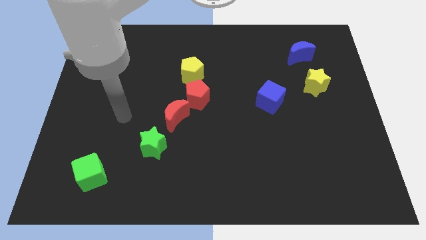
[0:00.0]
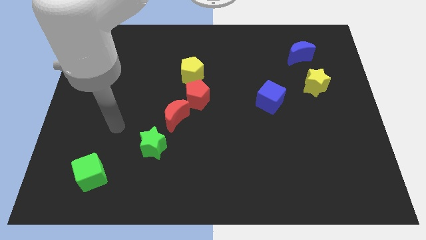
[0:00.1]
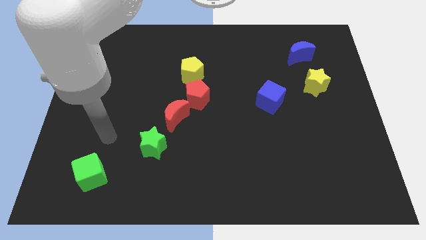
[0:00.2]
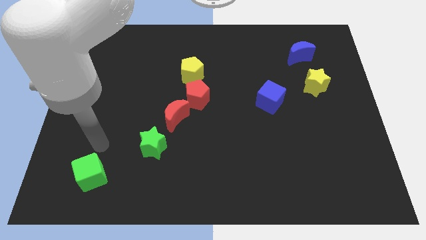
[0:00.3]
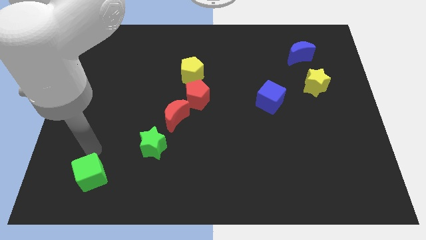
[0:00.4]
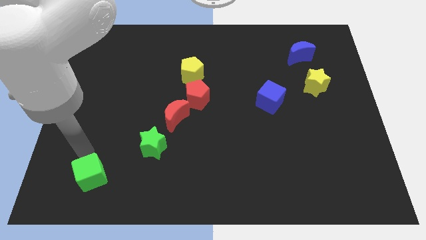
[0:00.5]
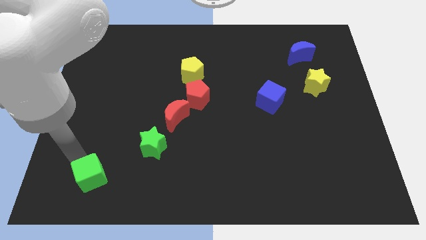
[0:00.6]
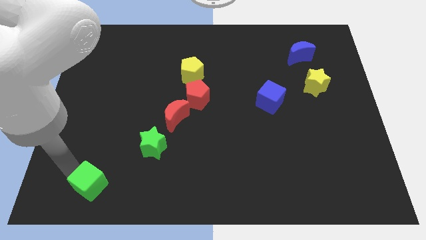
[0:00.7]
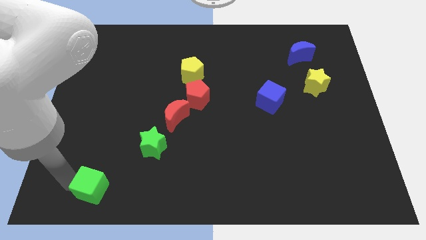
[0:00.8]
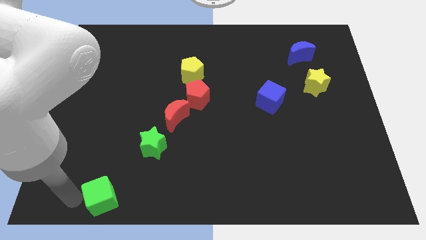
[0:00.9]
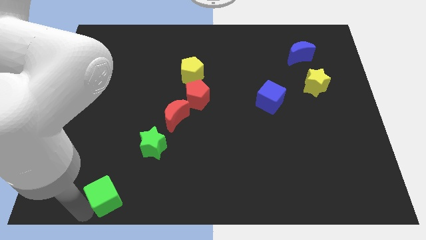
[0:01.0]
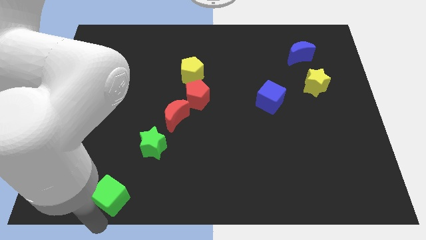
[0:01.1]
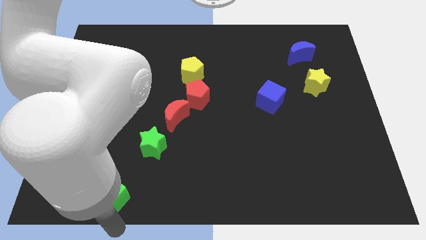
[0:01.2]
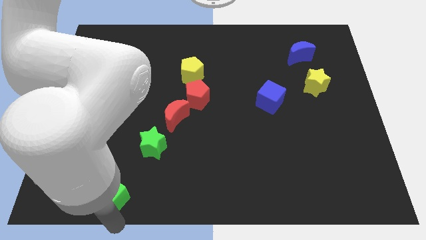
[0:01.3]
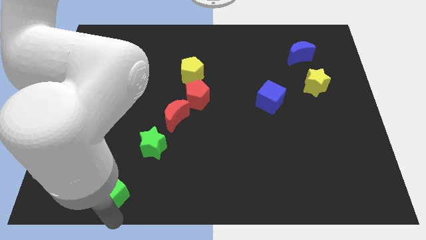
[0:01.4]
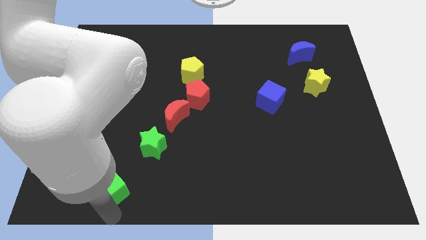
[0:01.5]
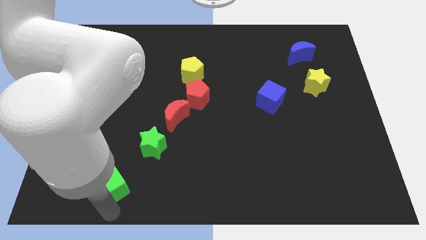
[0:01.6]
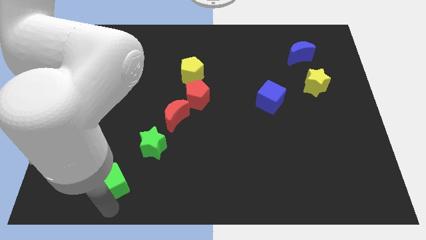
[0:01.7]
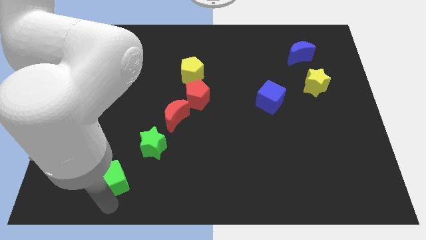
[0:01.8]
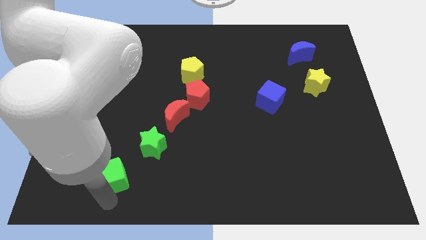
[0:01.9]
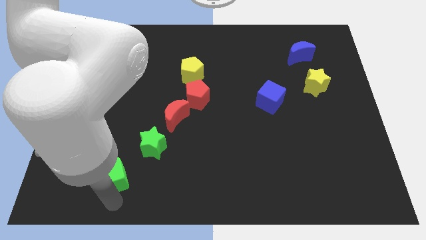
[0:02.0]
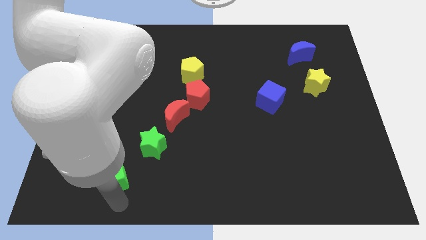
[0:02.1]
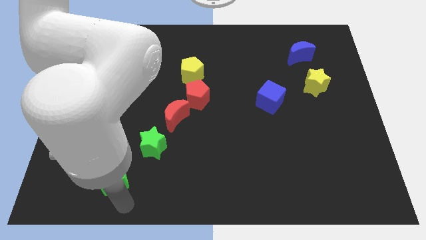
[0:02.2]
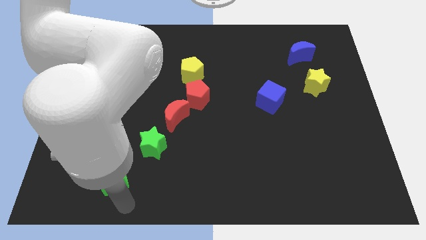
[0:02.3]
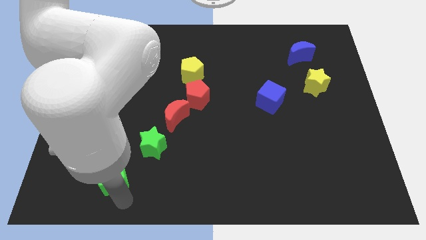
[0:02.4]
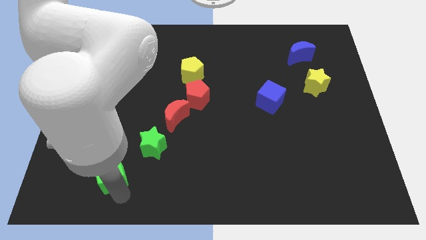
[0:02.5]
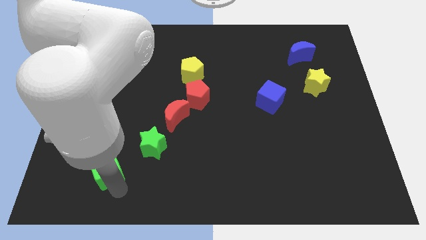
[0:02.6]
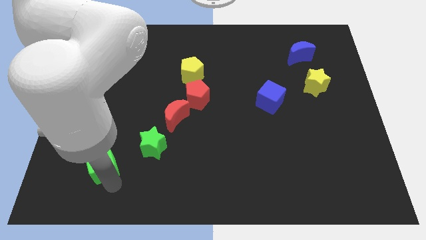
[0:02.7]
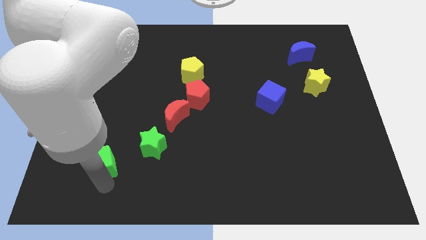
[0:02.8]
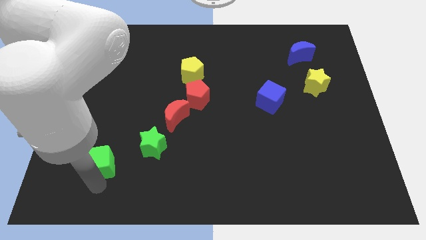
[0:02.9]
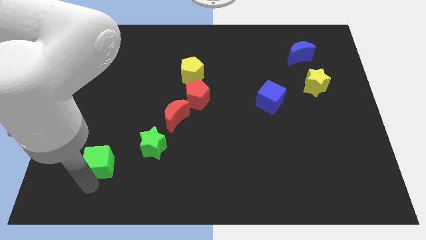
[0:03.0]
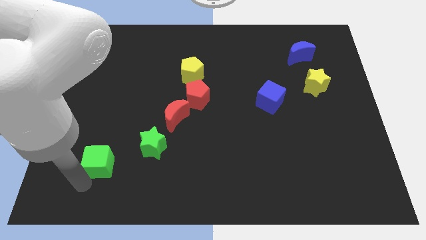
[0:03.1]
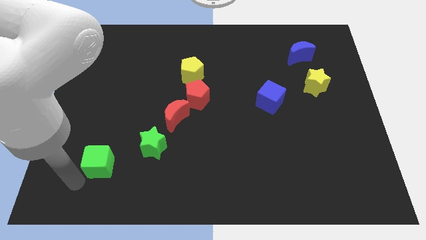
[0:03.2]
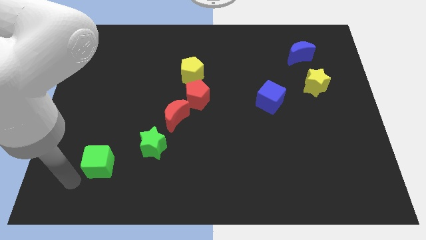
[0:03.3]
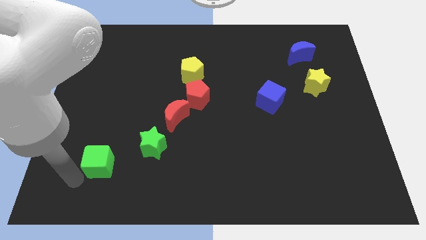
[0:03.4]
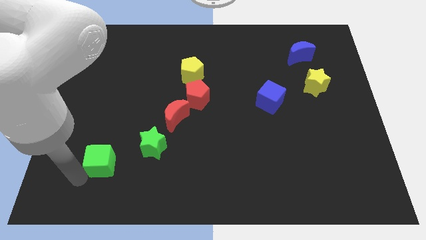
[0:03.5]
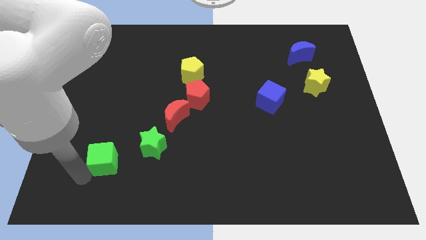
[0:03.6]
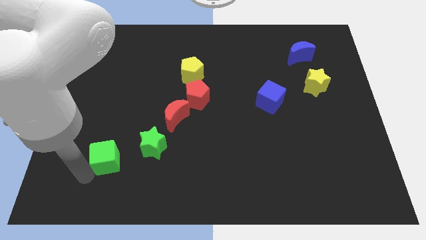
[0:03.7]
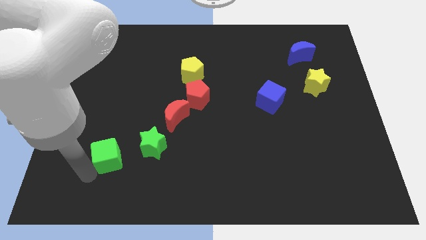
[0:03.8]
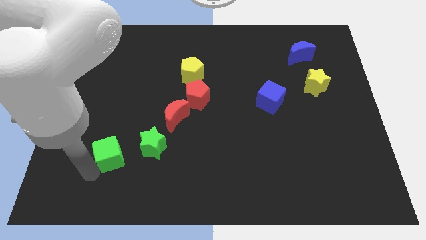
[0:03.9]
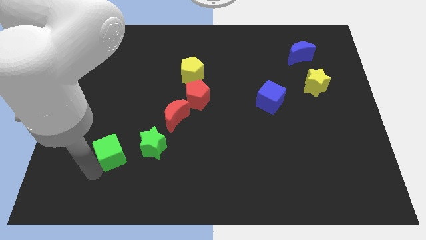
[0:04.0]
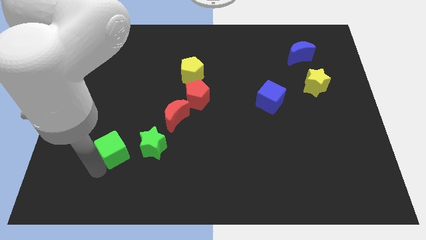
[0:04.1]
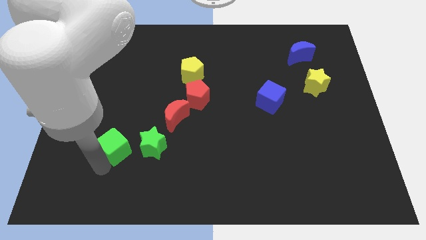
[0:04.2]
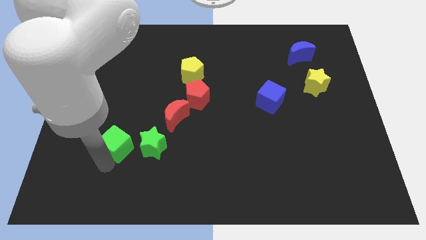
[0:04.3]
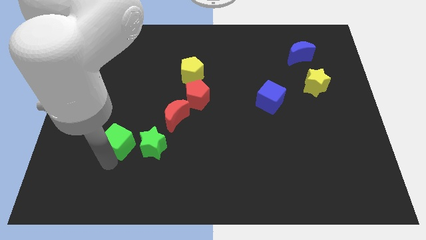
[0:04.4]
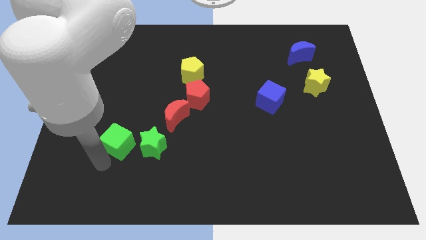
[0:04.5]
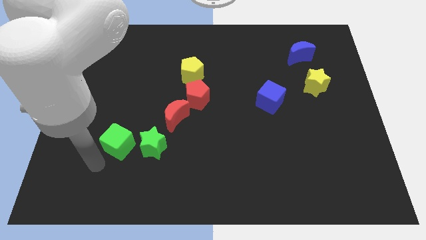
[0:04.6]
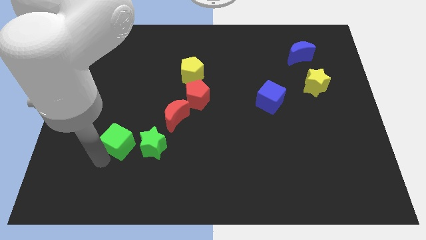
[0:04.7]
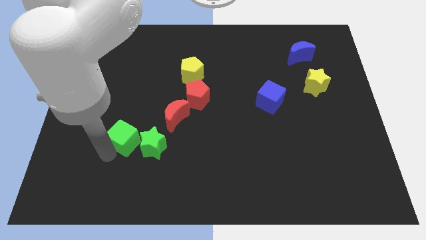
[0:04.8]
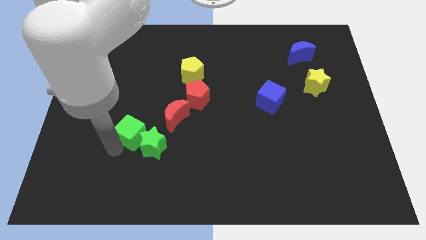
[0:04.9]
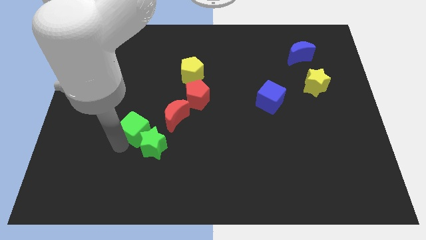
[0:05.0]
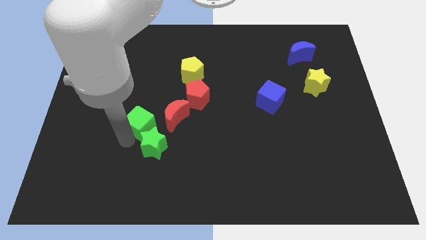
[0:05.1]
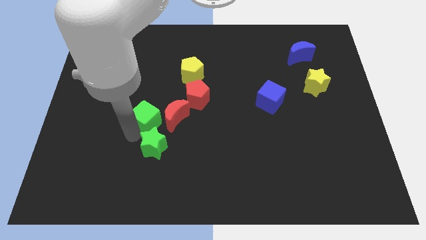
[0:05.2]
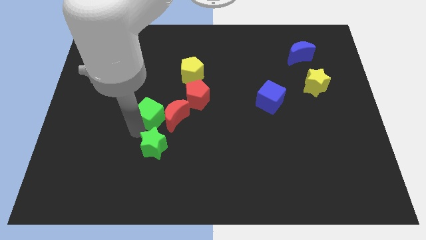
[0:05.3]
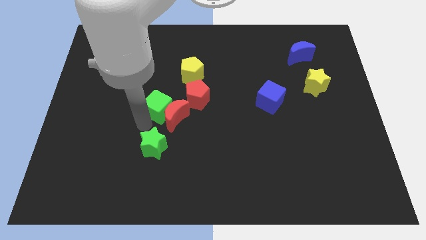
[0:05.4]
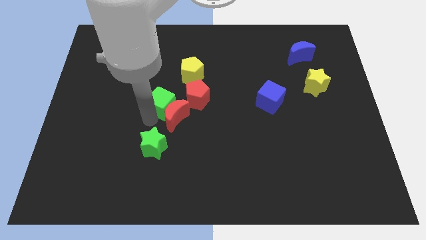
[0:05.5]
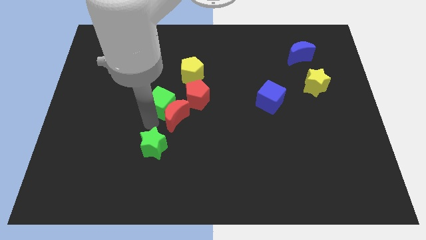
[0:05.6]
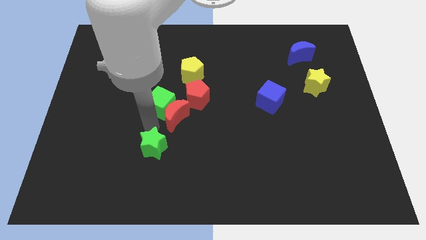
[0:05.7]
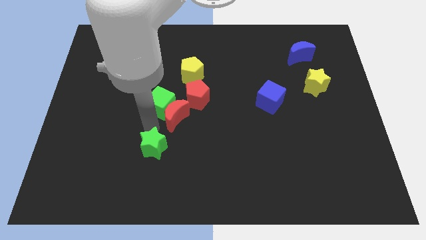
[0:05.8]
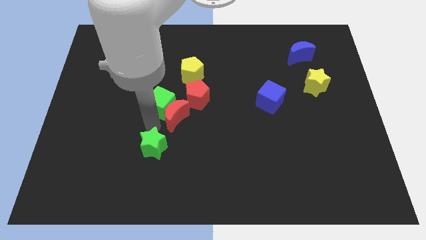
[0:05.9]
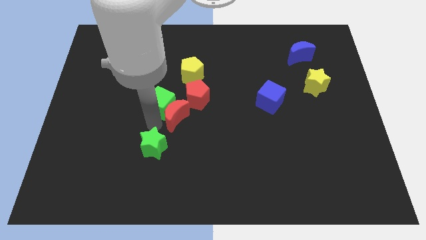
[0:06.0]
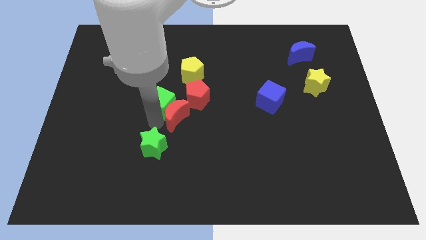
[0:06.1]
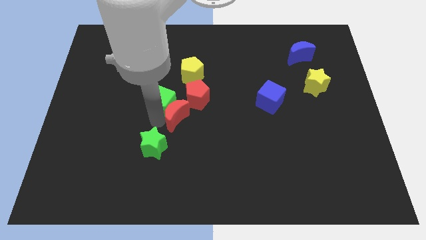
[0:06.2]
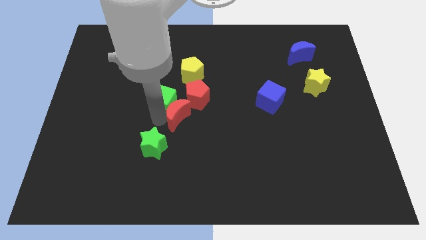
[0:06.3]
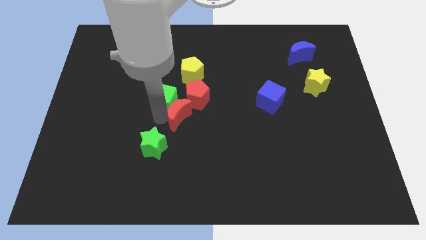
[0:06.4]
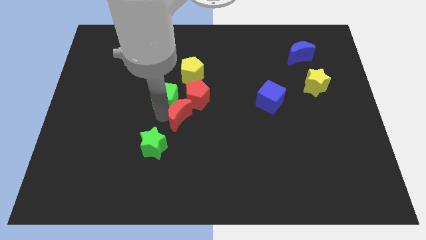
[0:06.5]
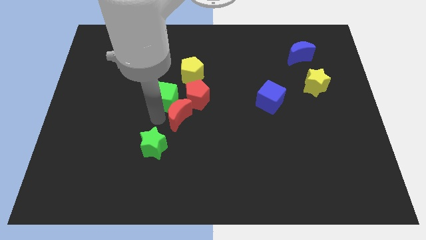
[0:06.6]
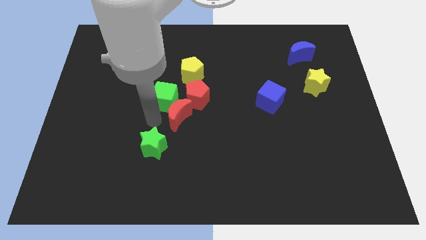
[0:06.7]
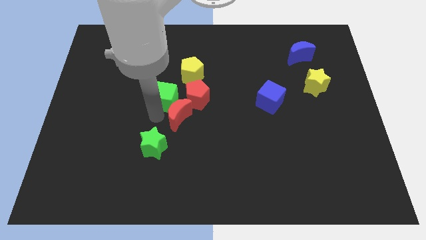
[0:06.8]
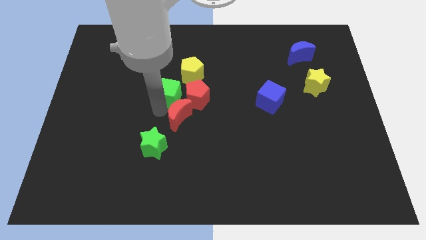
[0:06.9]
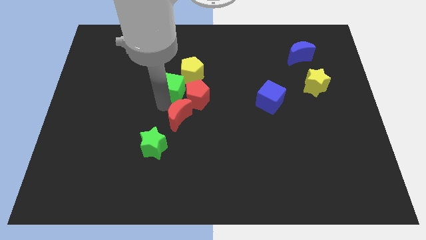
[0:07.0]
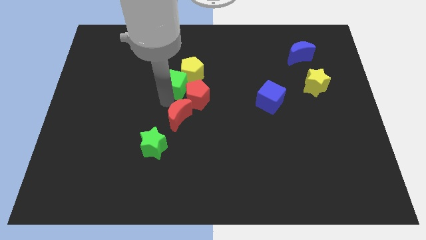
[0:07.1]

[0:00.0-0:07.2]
slide the green cube towards the yellow pentagon
